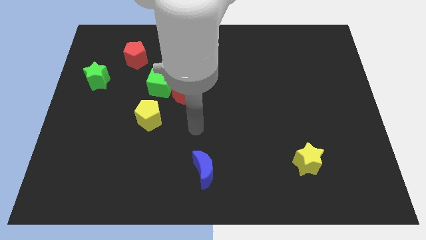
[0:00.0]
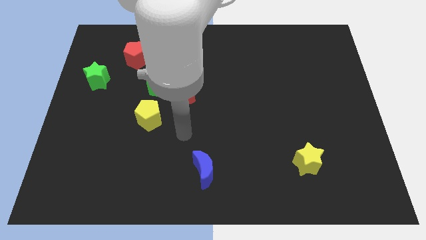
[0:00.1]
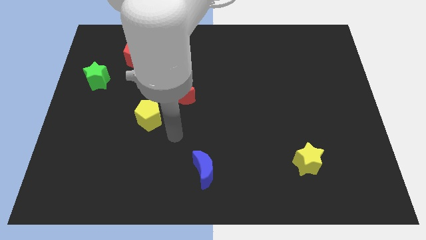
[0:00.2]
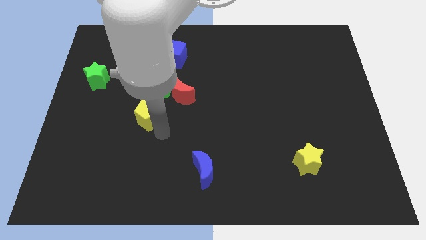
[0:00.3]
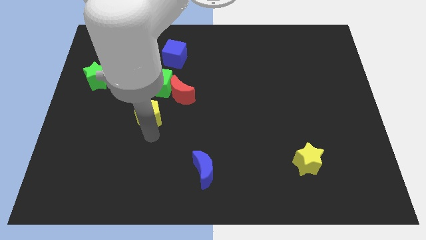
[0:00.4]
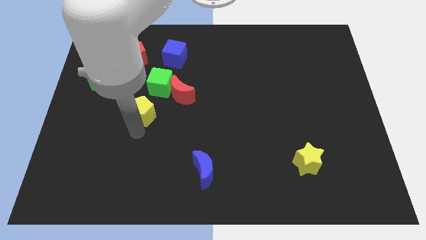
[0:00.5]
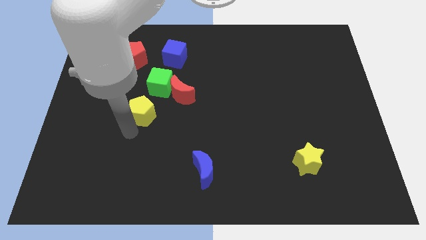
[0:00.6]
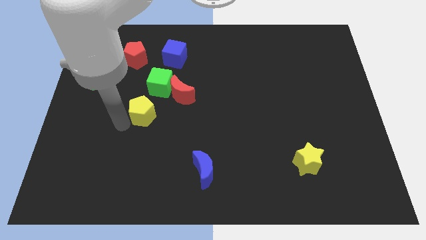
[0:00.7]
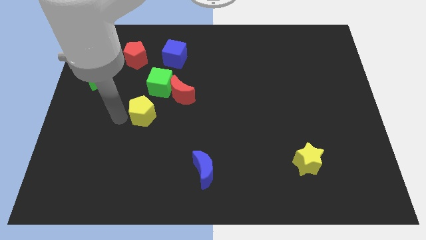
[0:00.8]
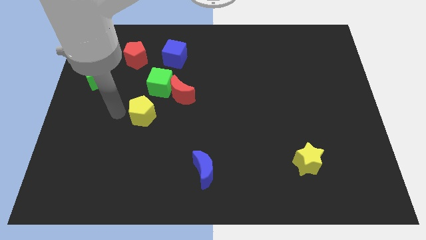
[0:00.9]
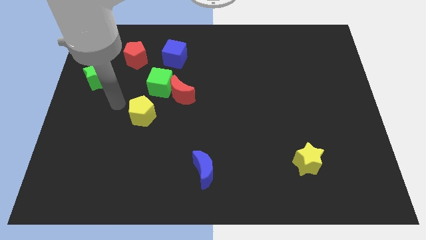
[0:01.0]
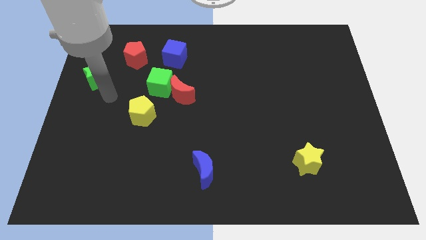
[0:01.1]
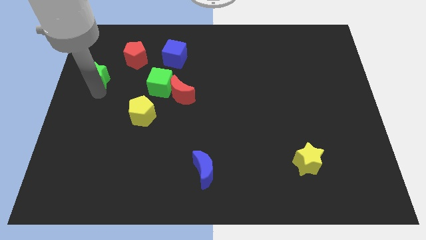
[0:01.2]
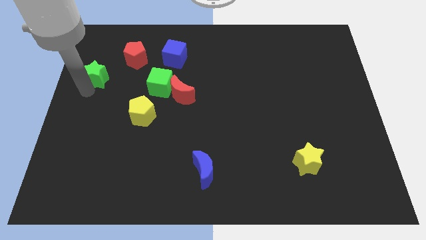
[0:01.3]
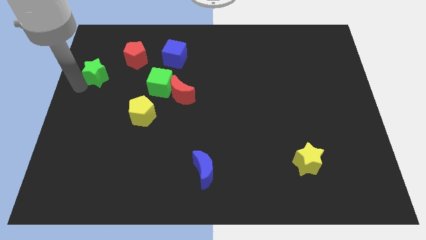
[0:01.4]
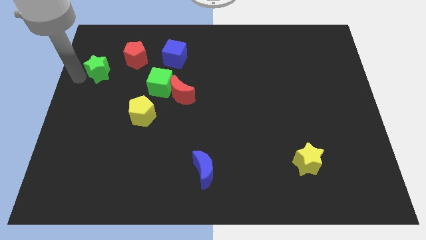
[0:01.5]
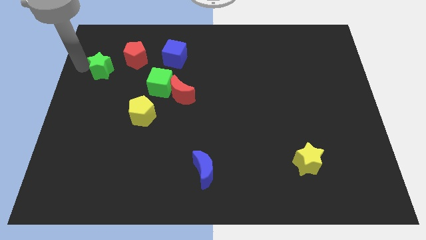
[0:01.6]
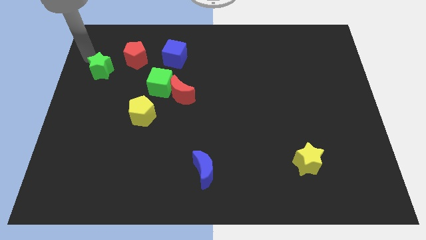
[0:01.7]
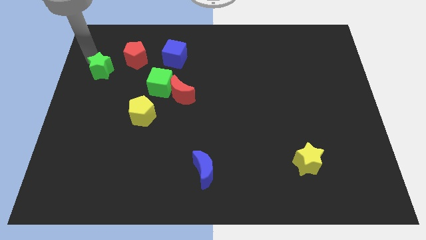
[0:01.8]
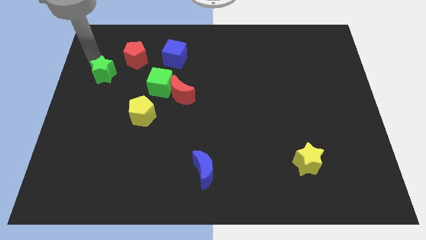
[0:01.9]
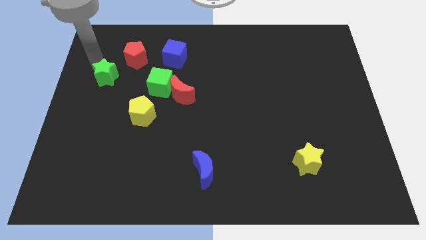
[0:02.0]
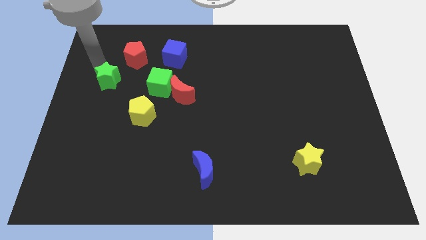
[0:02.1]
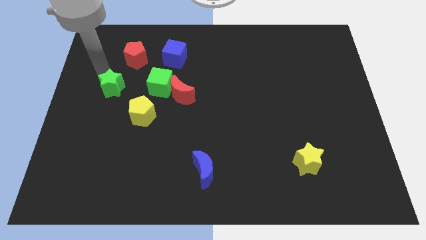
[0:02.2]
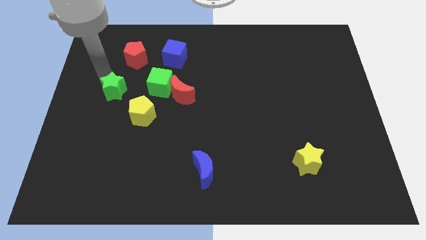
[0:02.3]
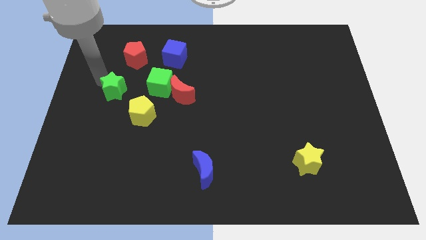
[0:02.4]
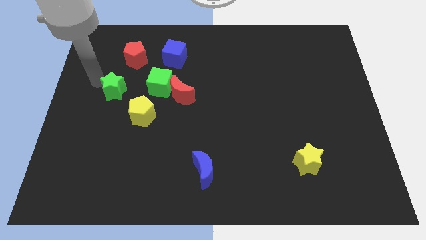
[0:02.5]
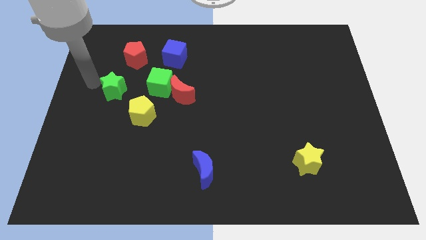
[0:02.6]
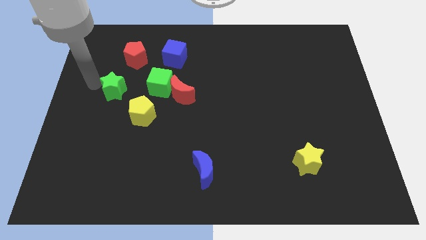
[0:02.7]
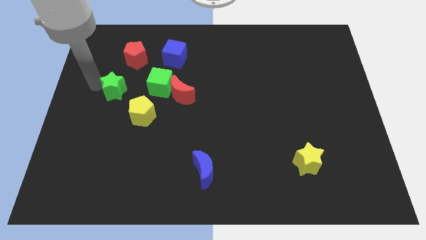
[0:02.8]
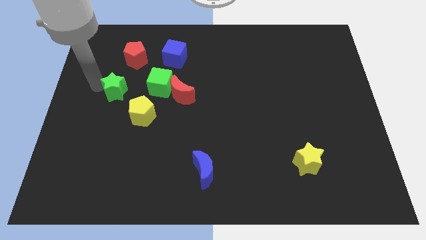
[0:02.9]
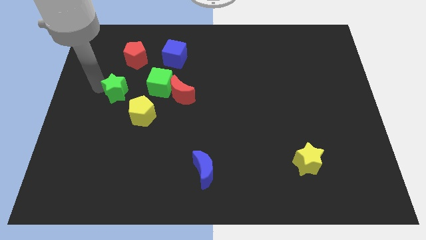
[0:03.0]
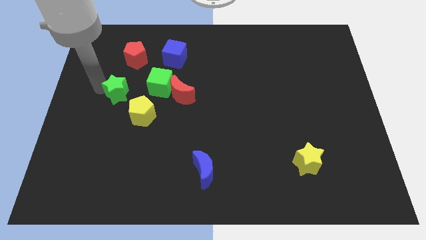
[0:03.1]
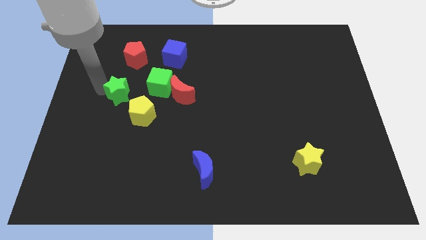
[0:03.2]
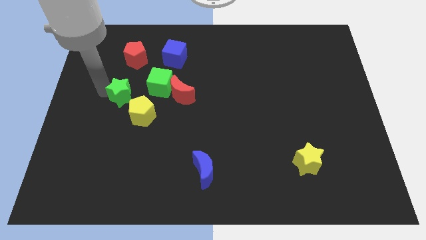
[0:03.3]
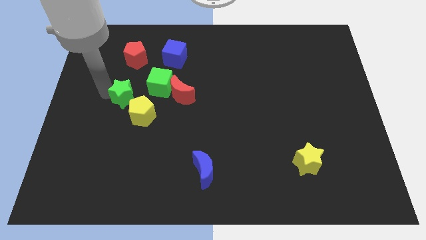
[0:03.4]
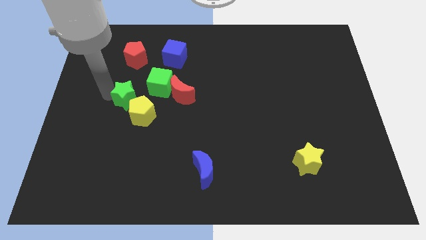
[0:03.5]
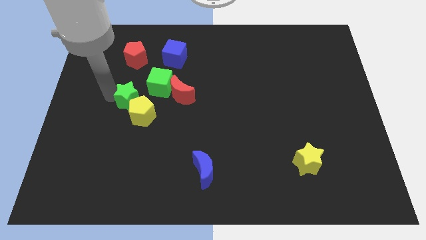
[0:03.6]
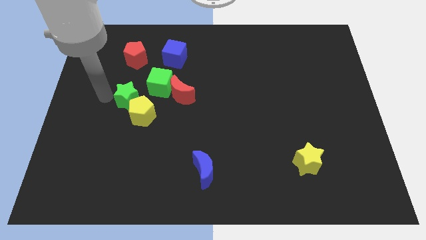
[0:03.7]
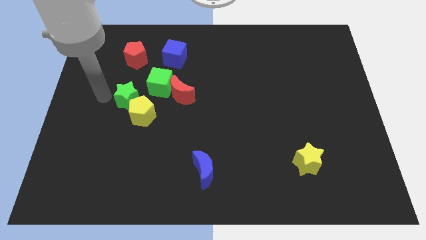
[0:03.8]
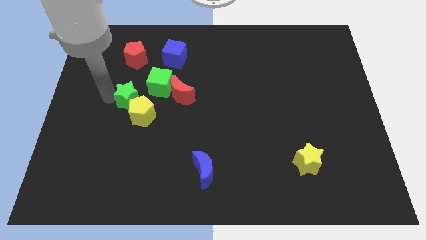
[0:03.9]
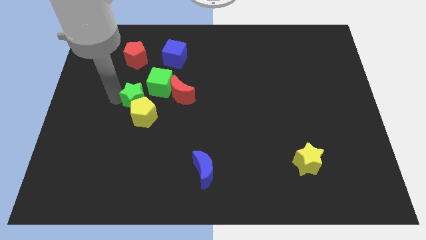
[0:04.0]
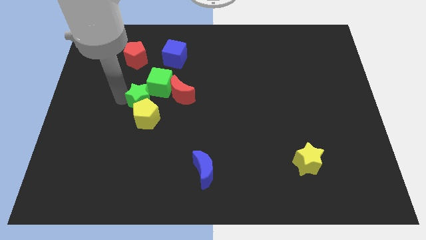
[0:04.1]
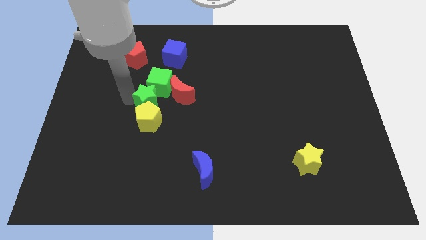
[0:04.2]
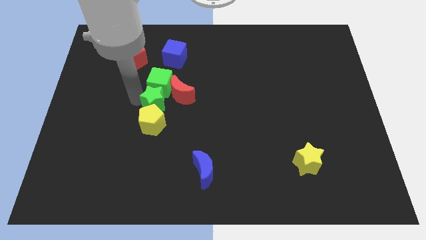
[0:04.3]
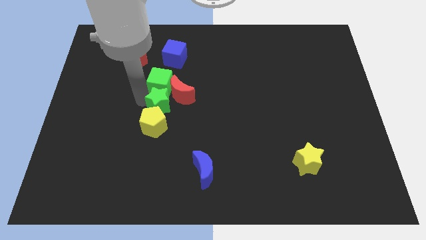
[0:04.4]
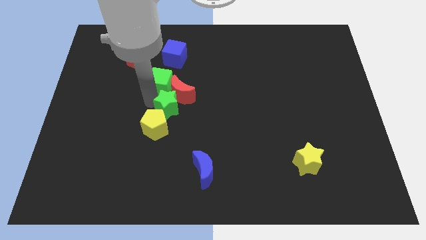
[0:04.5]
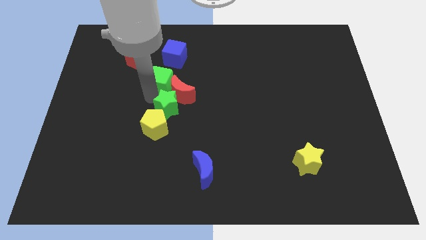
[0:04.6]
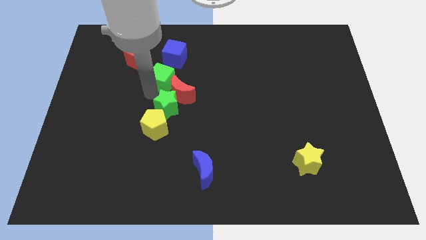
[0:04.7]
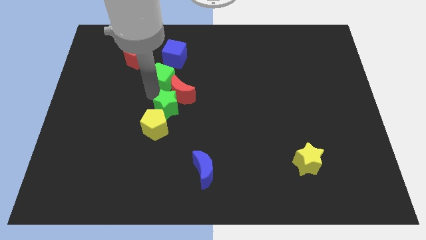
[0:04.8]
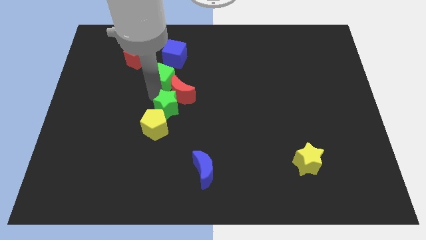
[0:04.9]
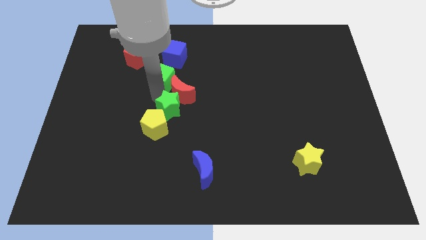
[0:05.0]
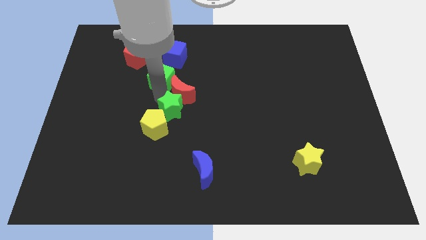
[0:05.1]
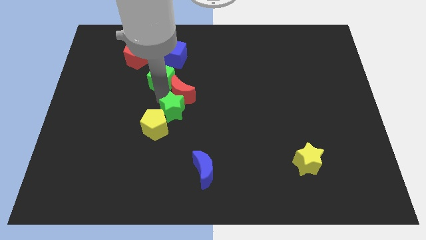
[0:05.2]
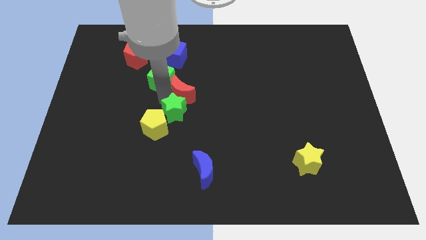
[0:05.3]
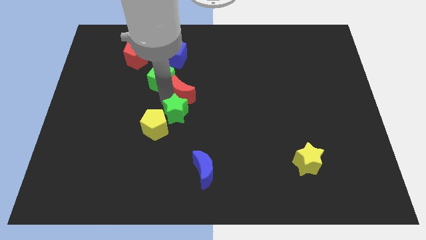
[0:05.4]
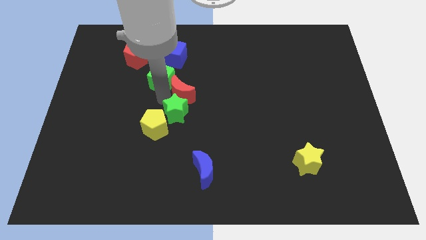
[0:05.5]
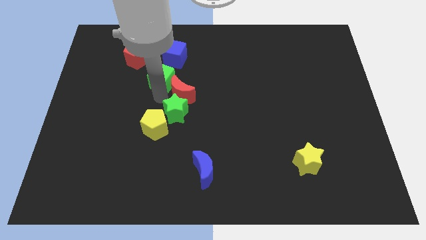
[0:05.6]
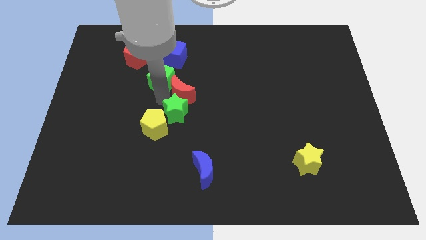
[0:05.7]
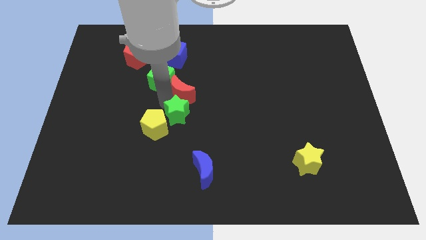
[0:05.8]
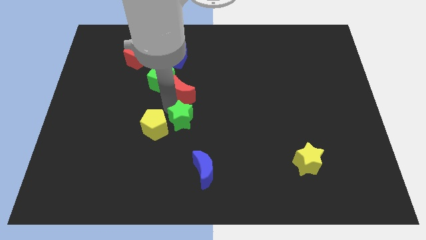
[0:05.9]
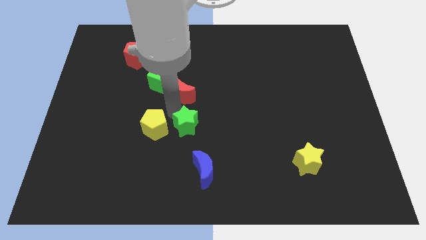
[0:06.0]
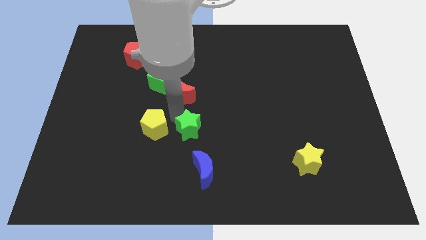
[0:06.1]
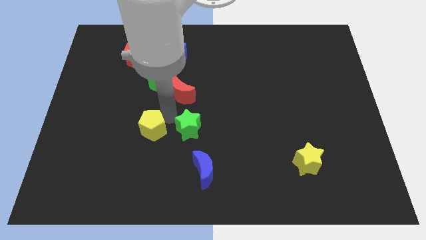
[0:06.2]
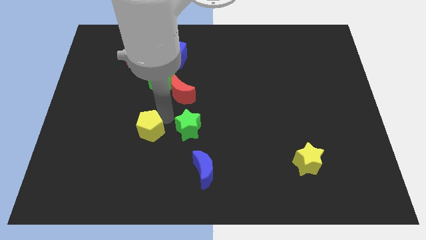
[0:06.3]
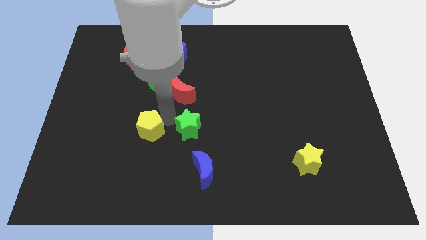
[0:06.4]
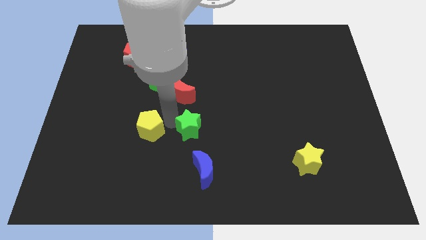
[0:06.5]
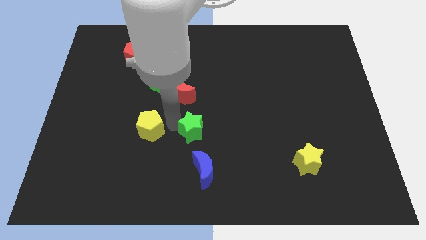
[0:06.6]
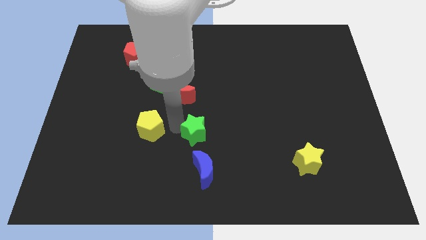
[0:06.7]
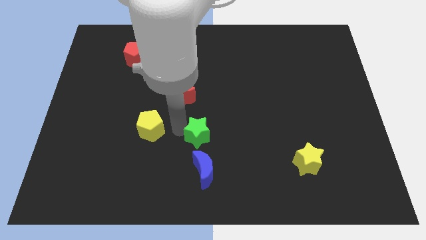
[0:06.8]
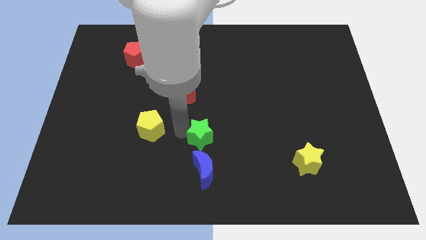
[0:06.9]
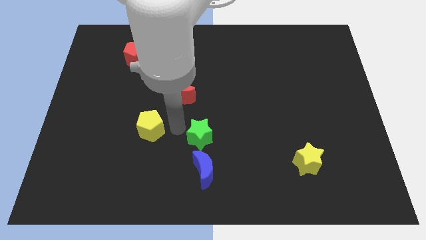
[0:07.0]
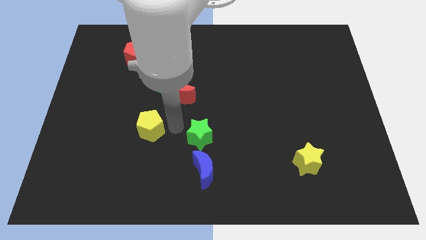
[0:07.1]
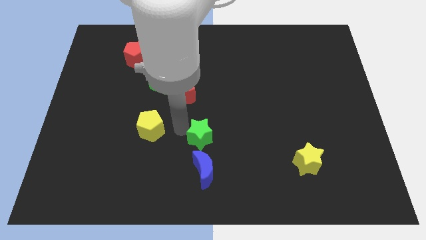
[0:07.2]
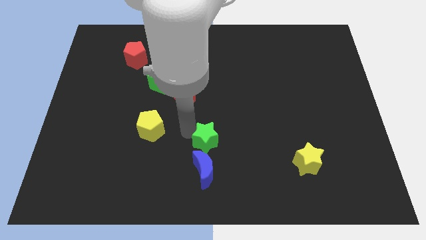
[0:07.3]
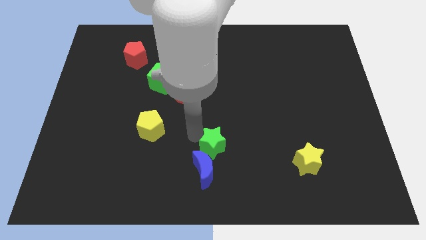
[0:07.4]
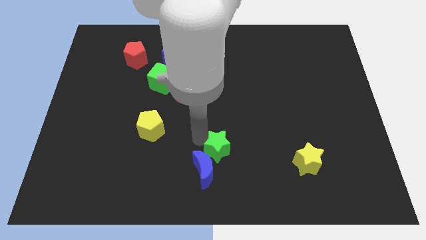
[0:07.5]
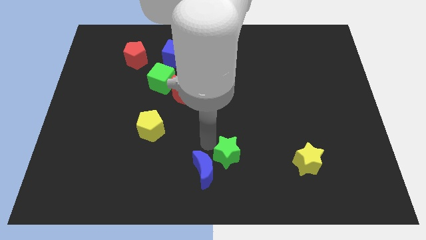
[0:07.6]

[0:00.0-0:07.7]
put the green star to the right side of the blue moon
